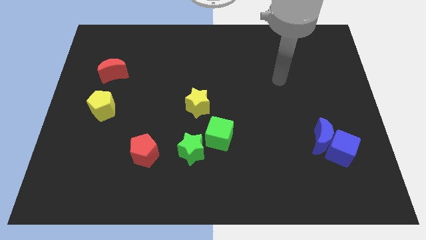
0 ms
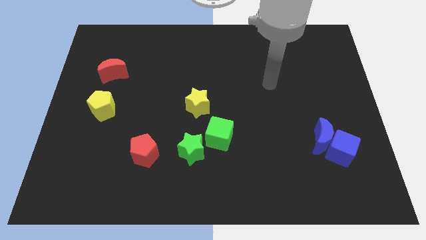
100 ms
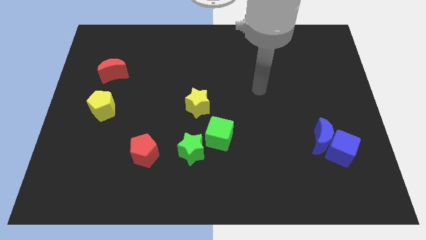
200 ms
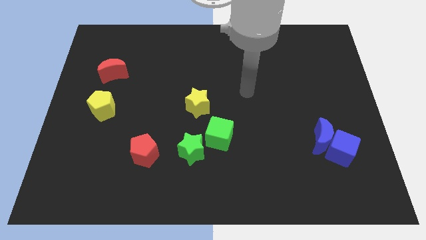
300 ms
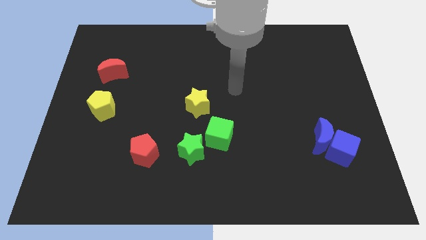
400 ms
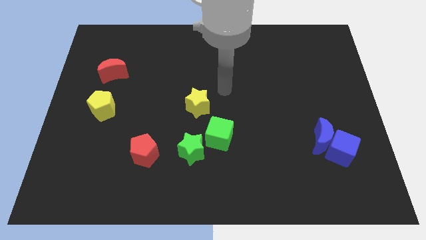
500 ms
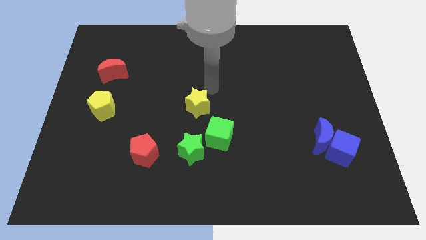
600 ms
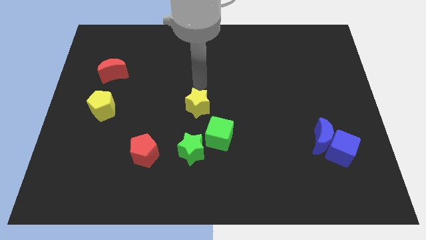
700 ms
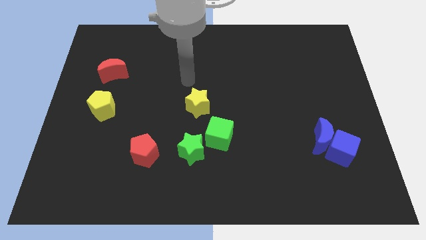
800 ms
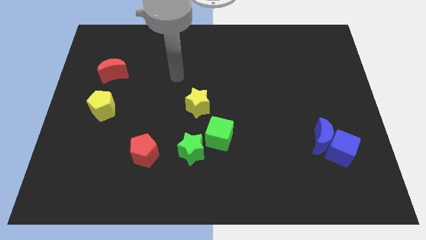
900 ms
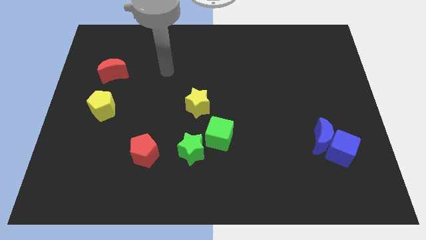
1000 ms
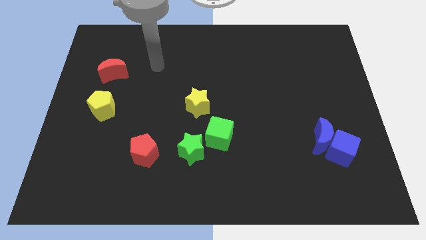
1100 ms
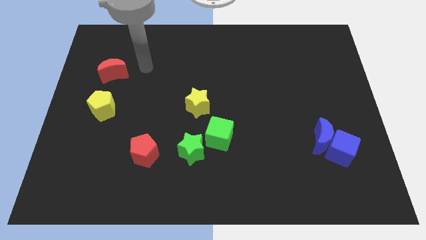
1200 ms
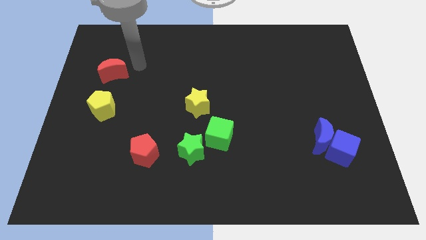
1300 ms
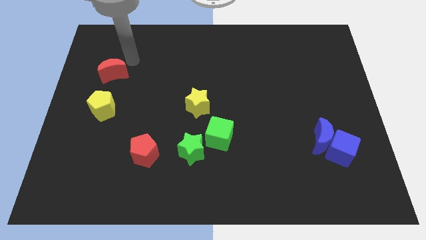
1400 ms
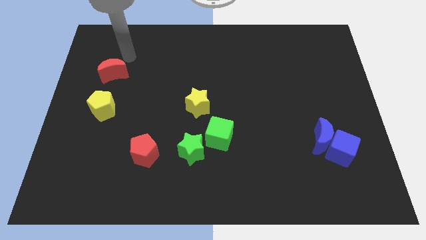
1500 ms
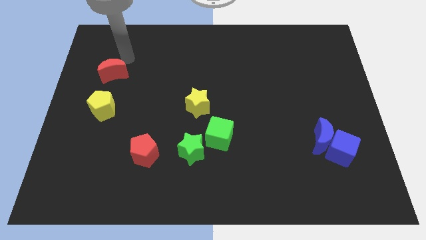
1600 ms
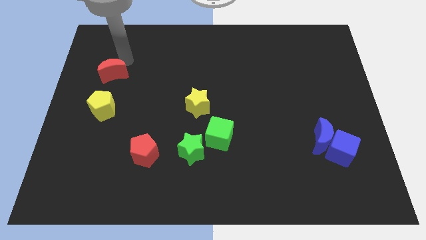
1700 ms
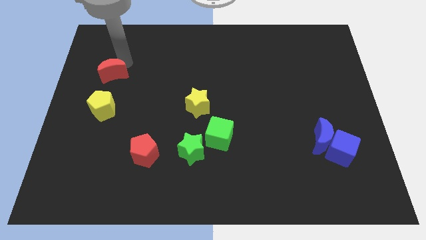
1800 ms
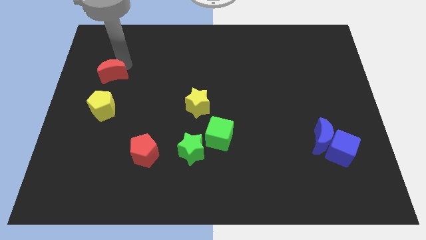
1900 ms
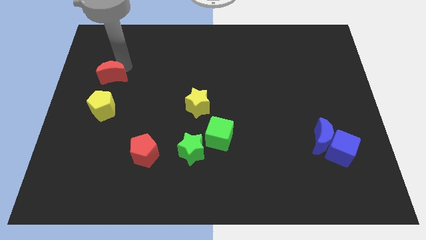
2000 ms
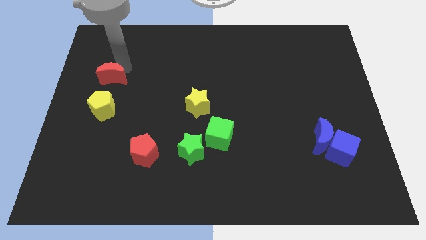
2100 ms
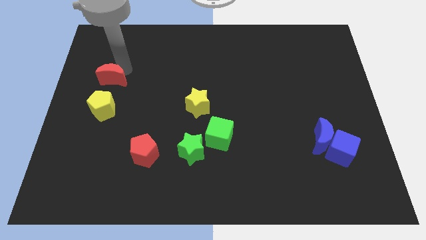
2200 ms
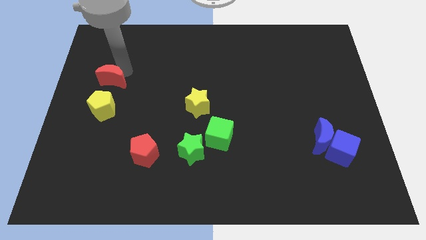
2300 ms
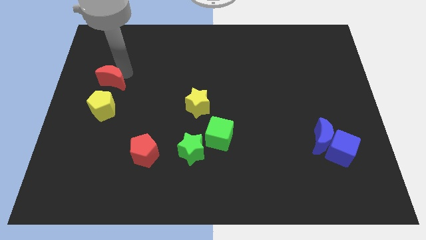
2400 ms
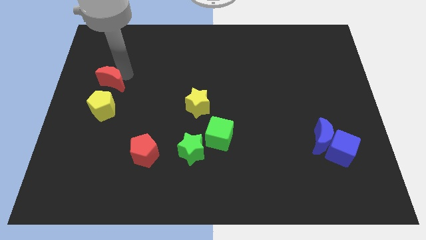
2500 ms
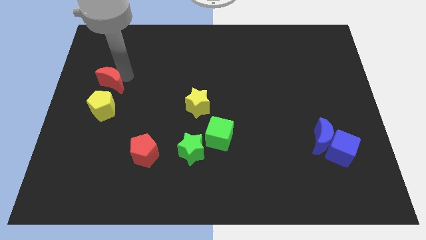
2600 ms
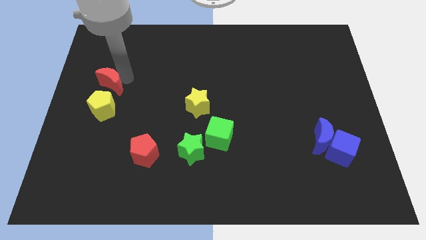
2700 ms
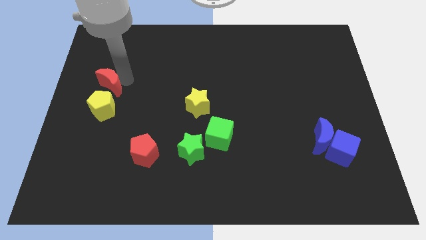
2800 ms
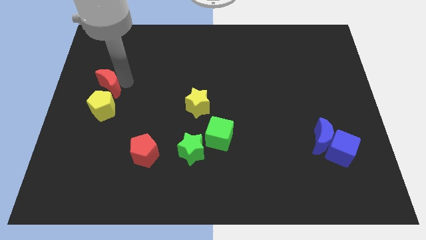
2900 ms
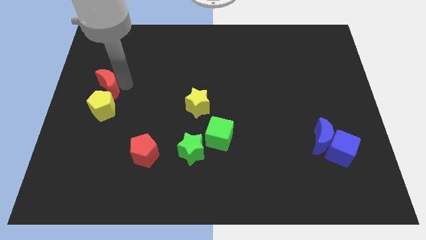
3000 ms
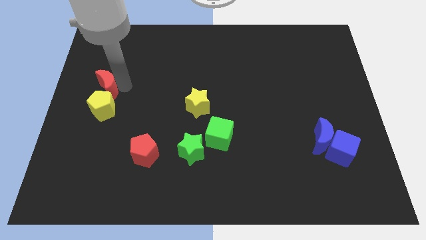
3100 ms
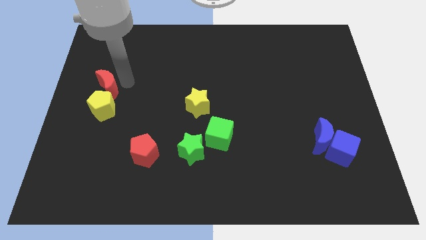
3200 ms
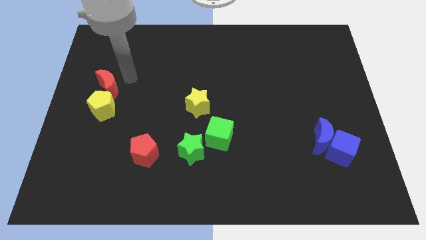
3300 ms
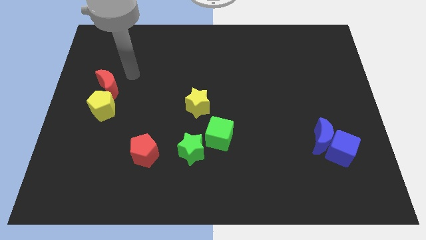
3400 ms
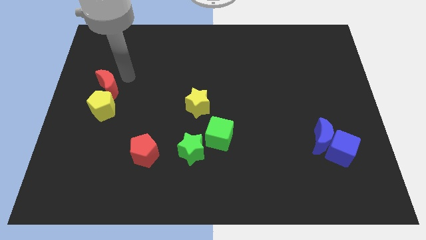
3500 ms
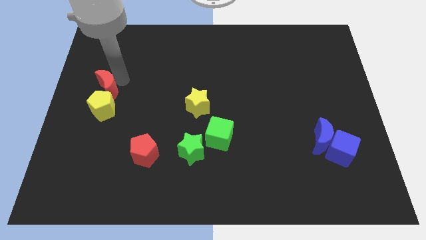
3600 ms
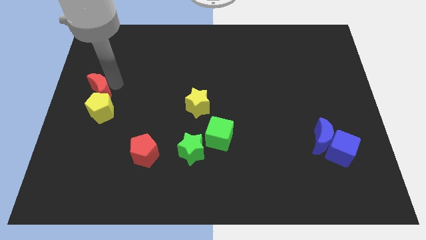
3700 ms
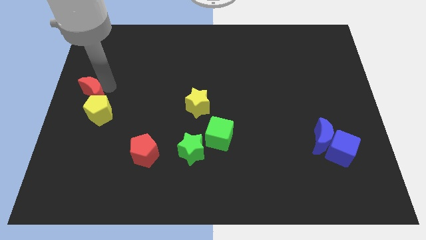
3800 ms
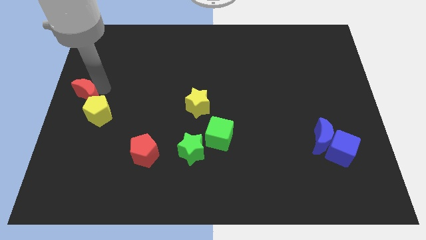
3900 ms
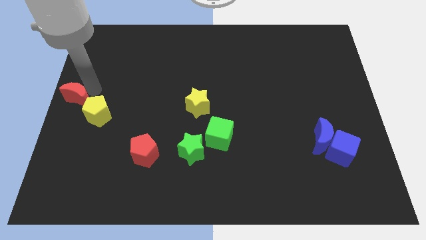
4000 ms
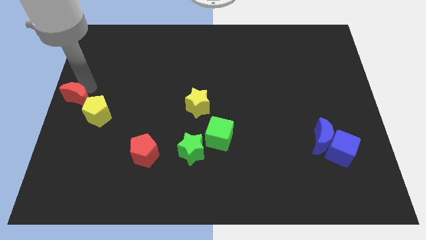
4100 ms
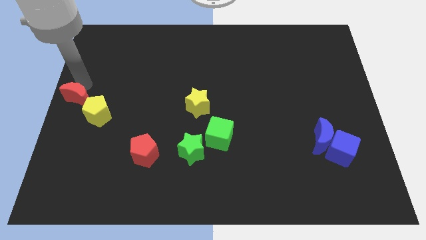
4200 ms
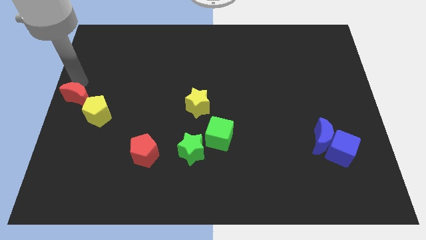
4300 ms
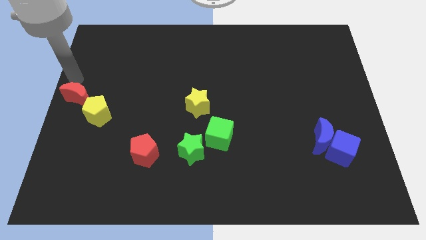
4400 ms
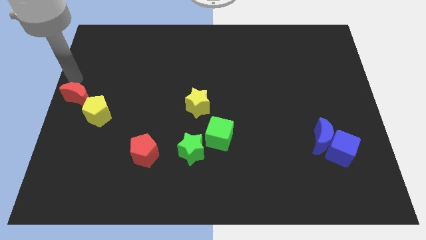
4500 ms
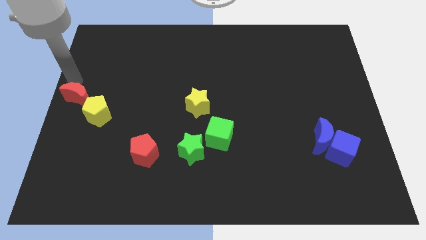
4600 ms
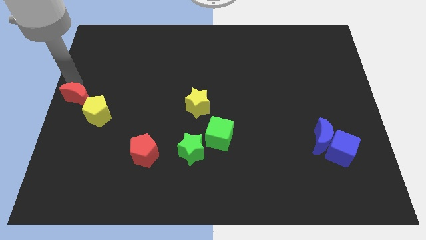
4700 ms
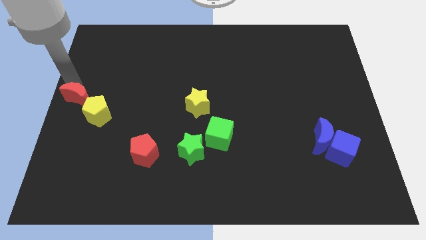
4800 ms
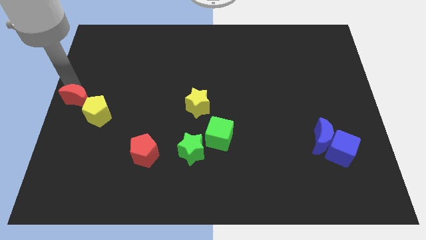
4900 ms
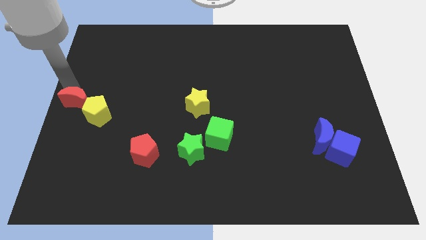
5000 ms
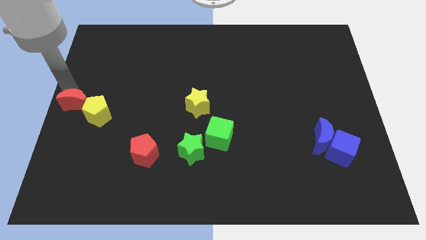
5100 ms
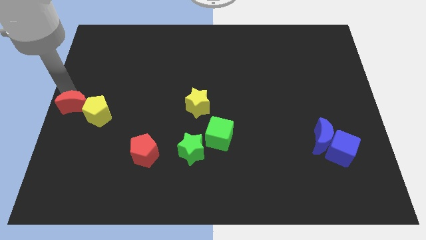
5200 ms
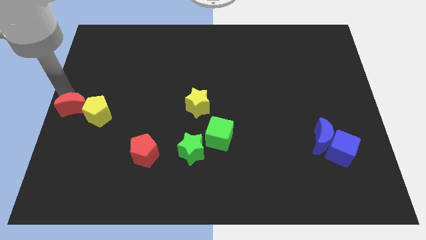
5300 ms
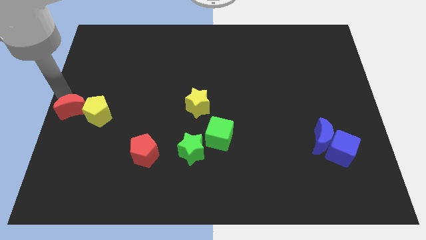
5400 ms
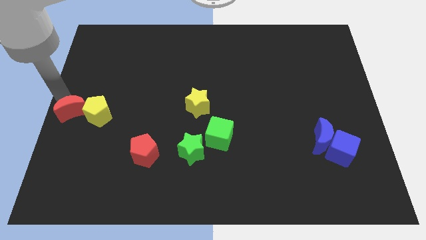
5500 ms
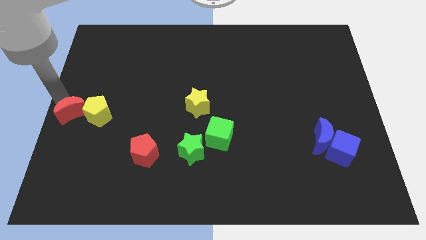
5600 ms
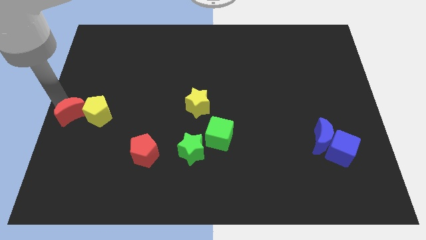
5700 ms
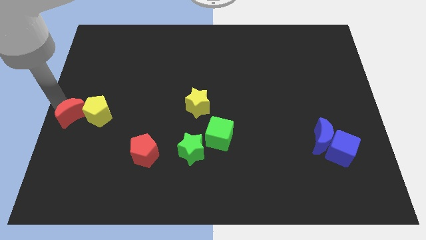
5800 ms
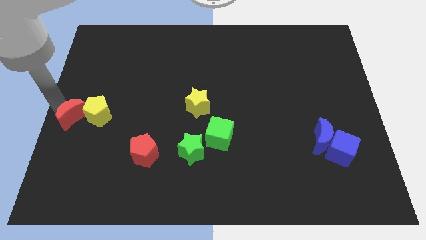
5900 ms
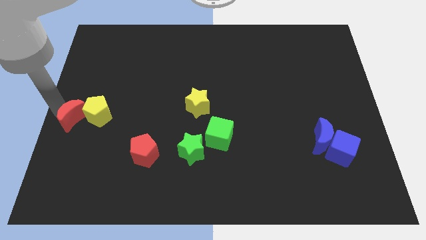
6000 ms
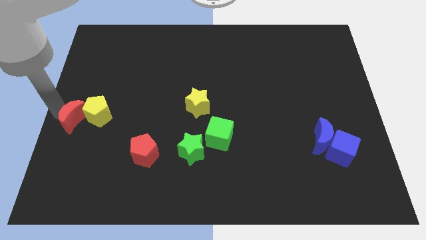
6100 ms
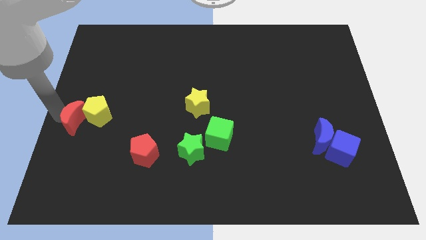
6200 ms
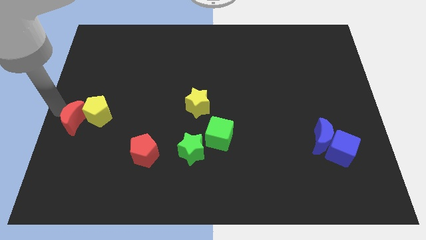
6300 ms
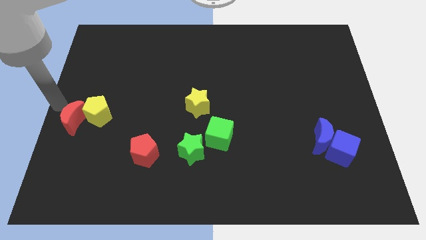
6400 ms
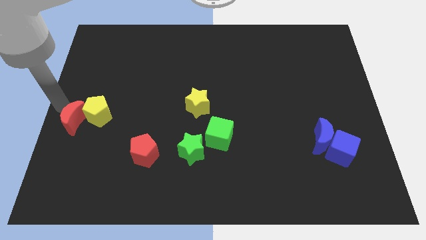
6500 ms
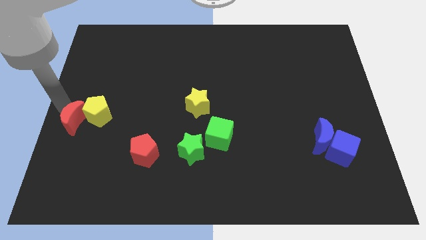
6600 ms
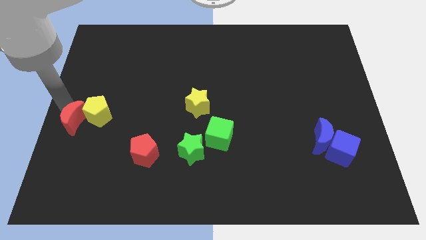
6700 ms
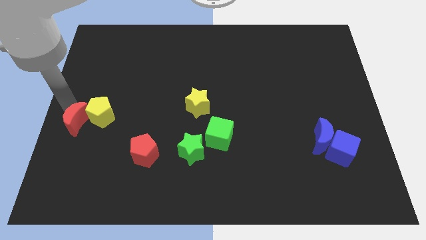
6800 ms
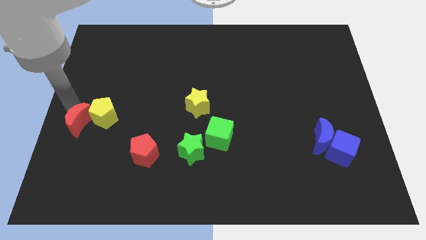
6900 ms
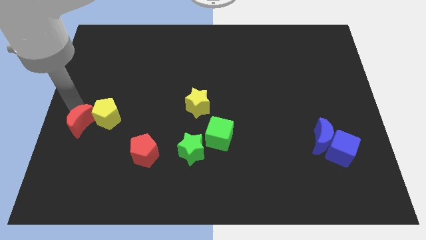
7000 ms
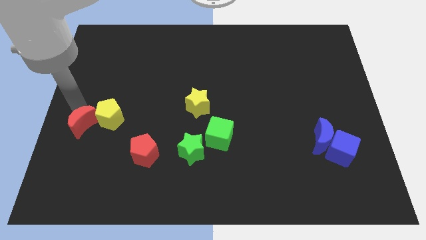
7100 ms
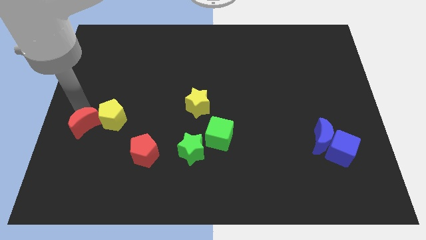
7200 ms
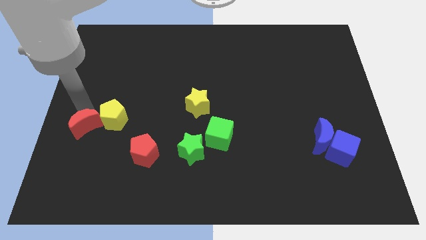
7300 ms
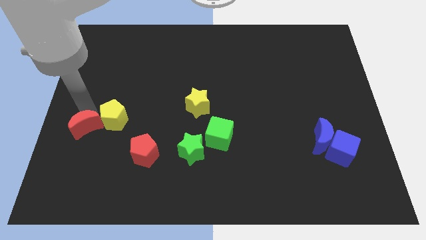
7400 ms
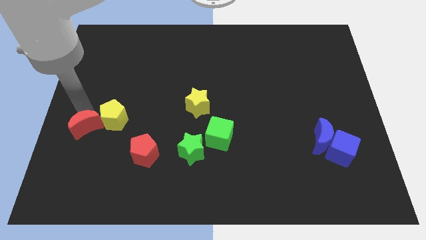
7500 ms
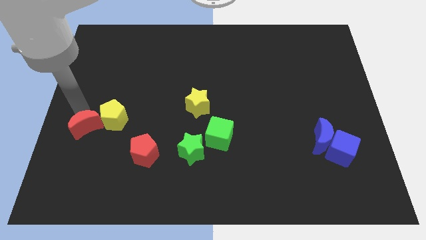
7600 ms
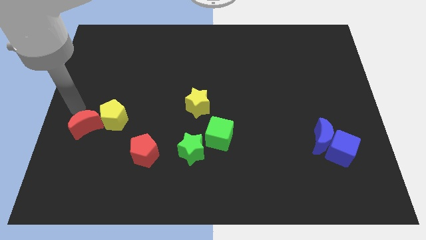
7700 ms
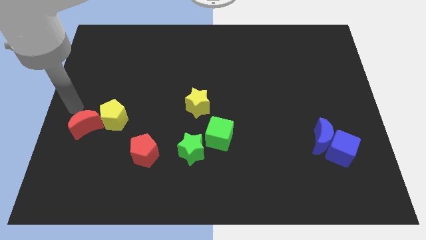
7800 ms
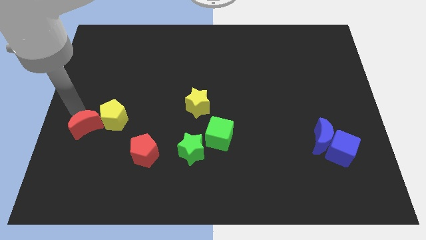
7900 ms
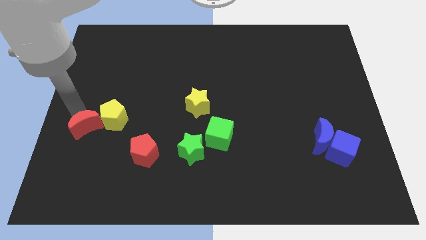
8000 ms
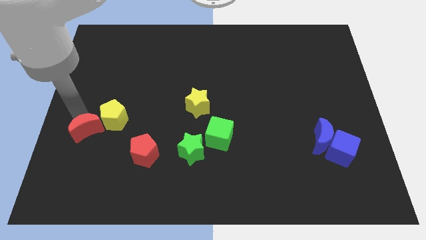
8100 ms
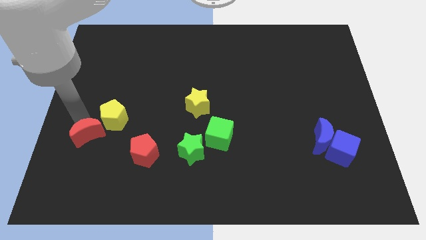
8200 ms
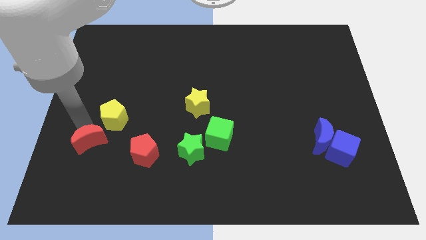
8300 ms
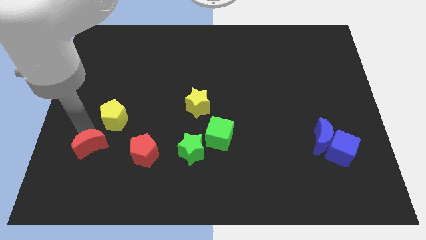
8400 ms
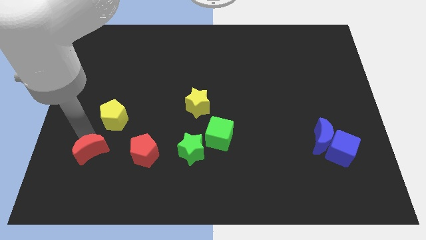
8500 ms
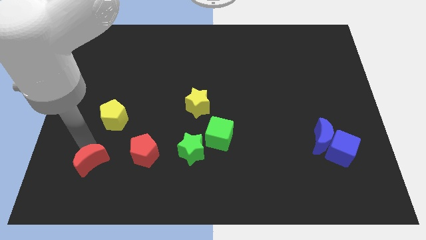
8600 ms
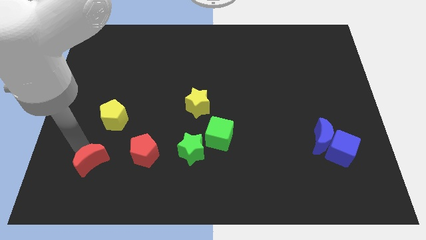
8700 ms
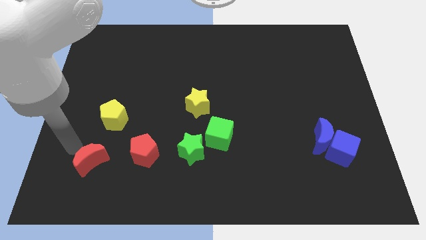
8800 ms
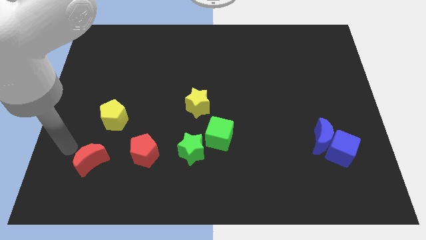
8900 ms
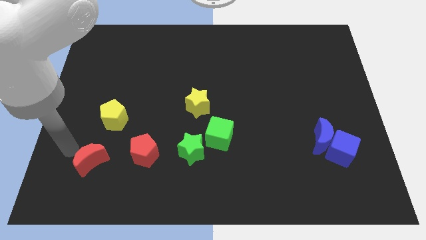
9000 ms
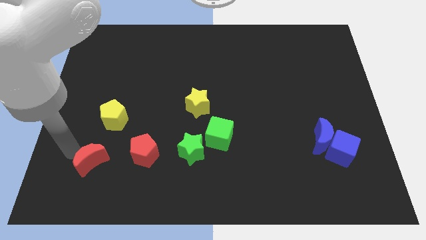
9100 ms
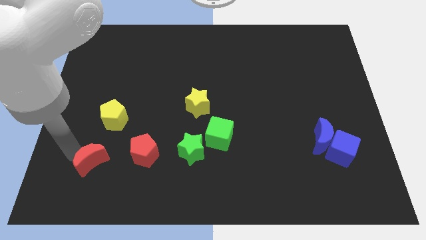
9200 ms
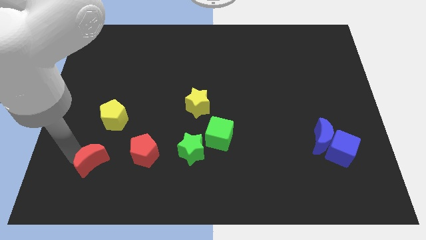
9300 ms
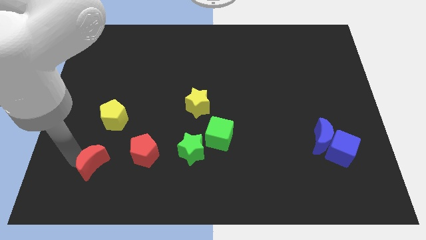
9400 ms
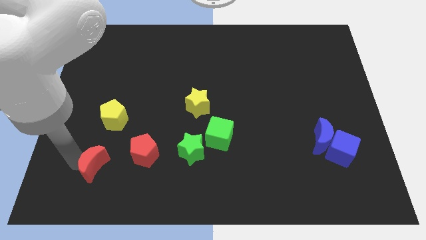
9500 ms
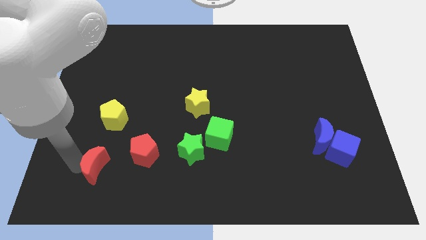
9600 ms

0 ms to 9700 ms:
slide the red moon to the bottom left of the red pentagon
